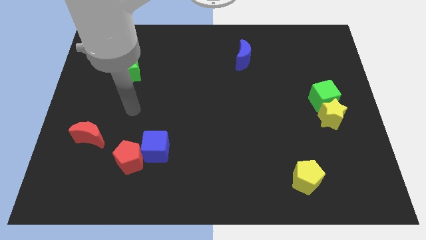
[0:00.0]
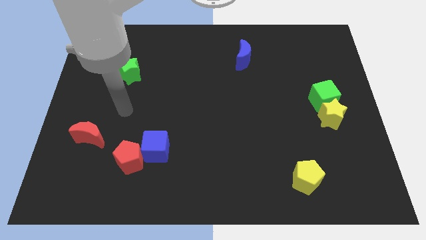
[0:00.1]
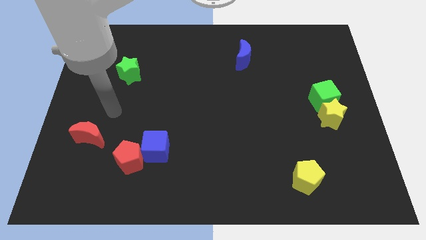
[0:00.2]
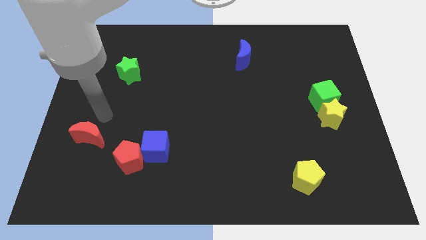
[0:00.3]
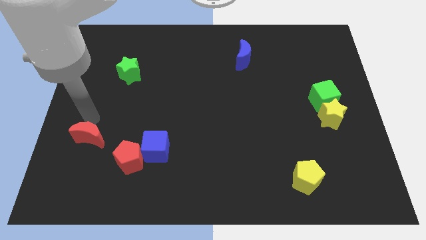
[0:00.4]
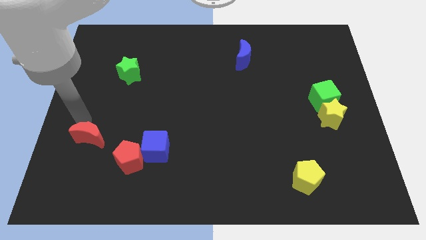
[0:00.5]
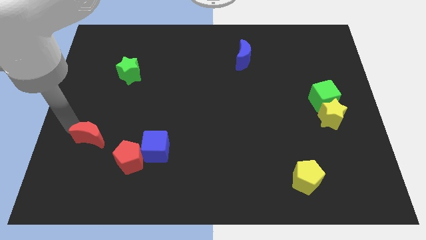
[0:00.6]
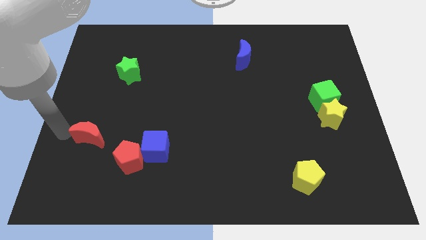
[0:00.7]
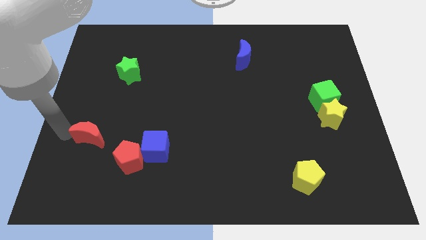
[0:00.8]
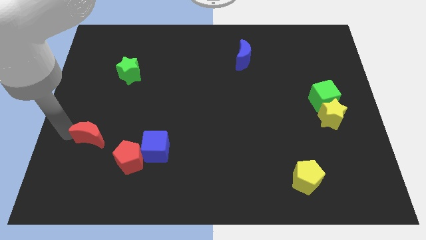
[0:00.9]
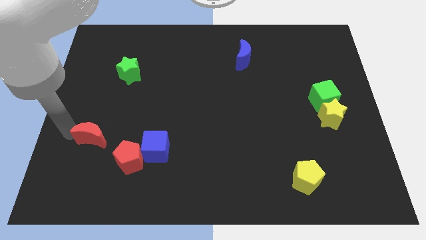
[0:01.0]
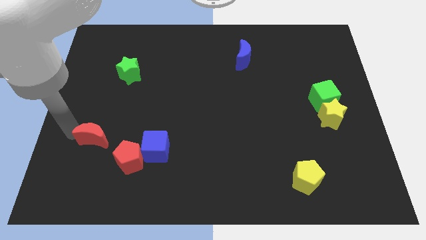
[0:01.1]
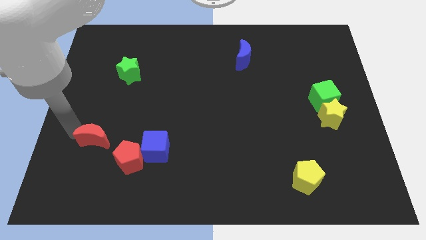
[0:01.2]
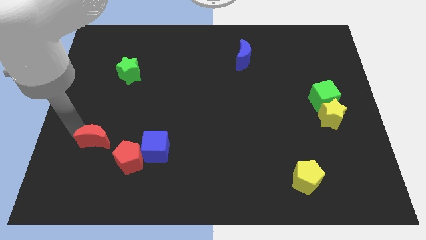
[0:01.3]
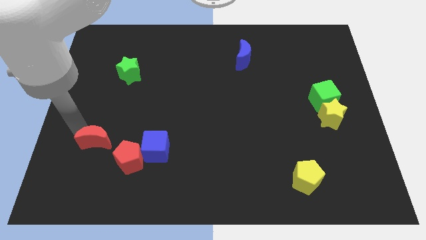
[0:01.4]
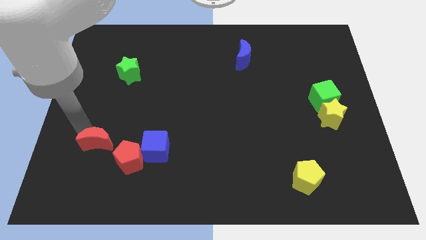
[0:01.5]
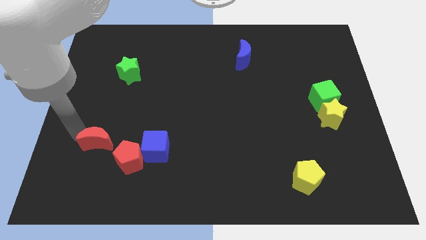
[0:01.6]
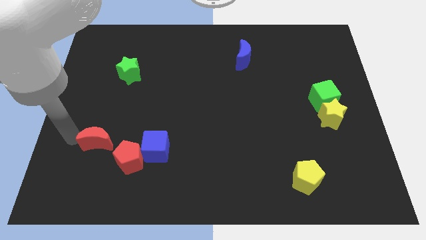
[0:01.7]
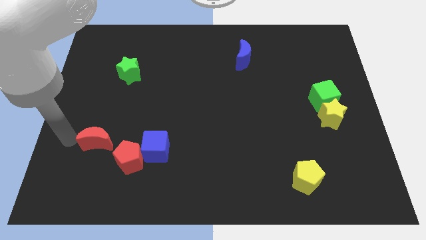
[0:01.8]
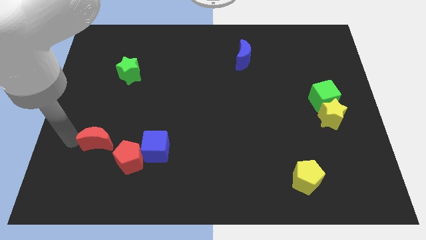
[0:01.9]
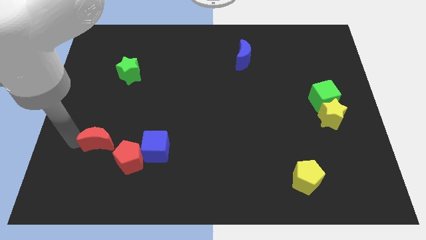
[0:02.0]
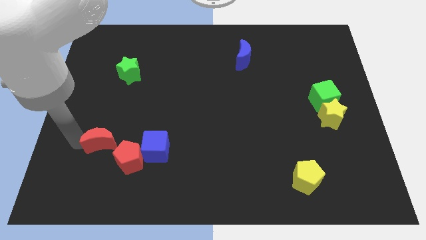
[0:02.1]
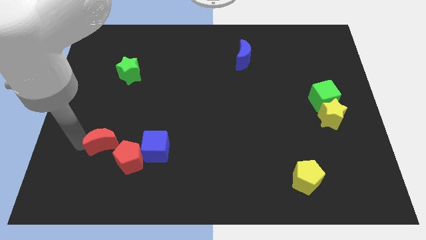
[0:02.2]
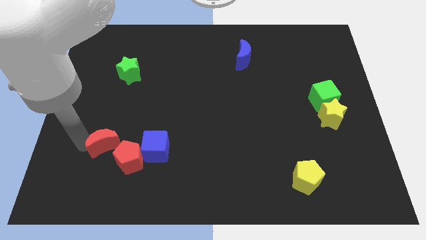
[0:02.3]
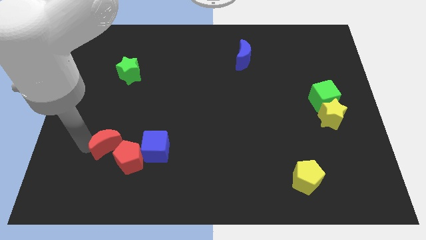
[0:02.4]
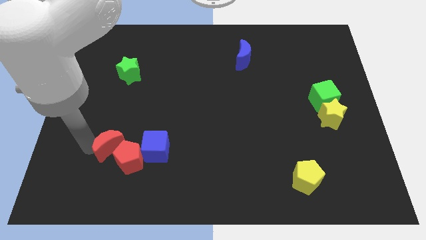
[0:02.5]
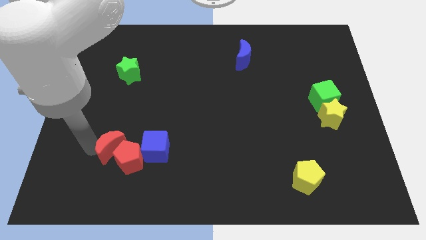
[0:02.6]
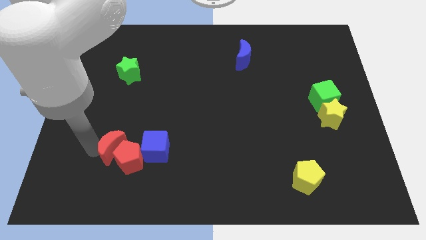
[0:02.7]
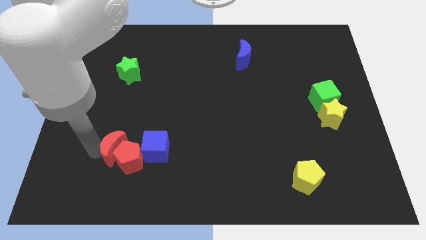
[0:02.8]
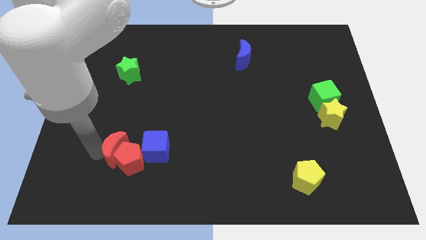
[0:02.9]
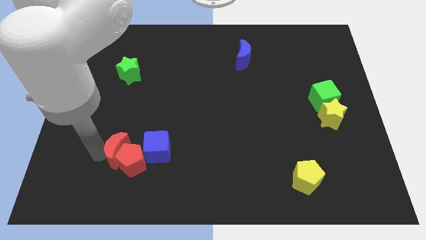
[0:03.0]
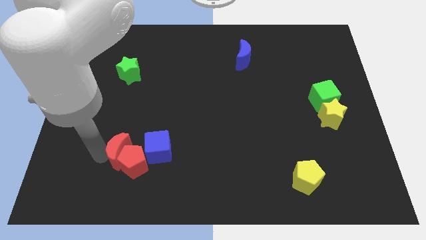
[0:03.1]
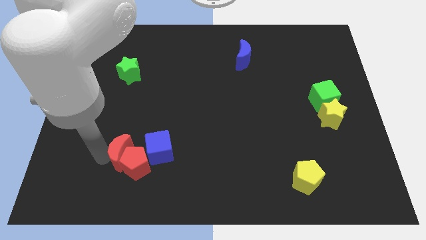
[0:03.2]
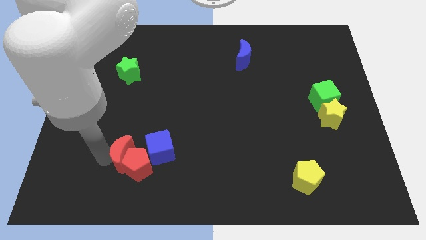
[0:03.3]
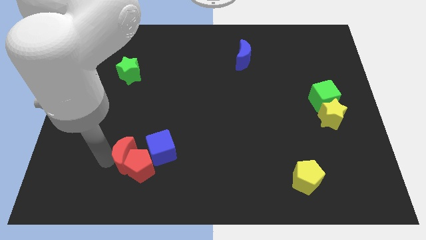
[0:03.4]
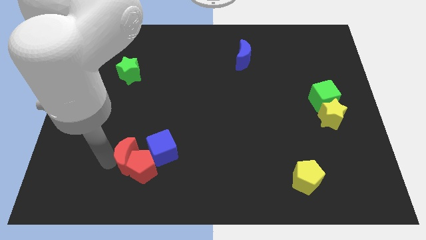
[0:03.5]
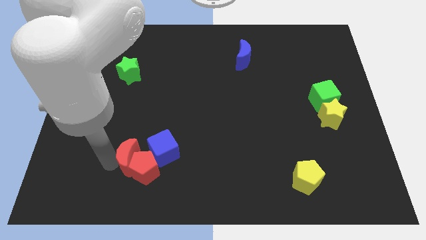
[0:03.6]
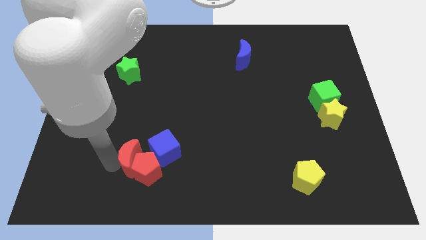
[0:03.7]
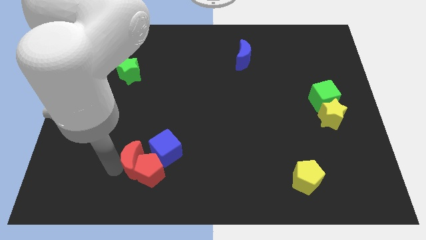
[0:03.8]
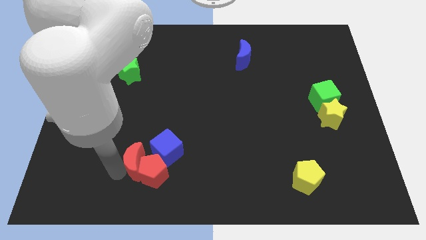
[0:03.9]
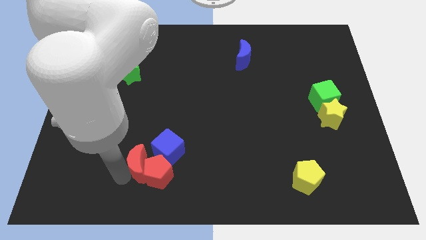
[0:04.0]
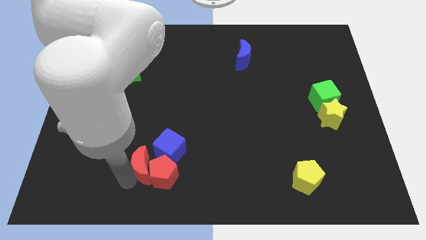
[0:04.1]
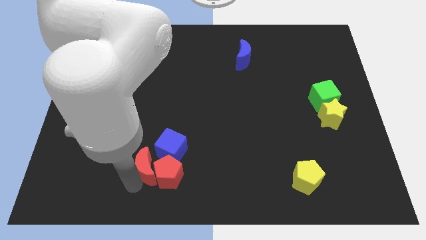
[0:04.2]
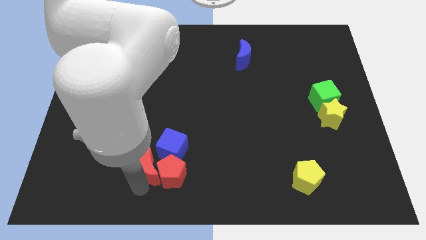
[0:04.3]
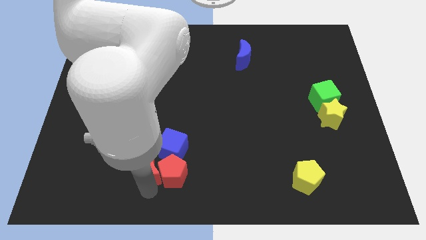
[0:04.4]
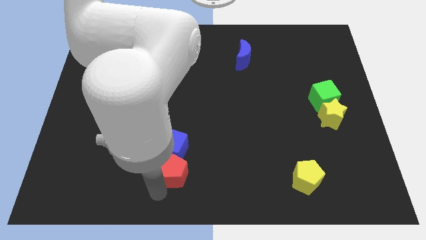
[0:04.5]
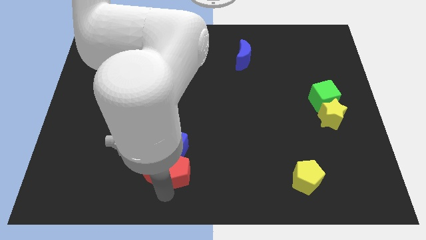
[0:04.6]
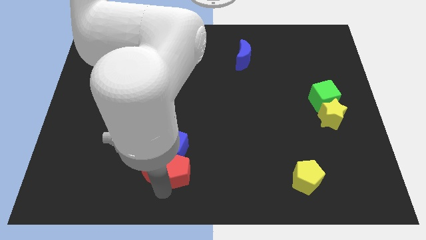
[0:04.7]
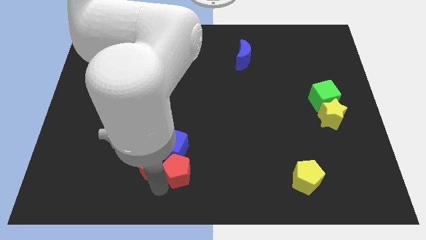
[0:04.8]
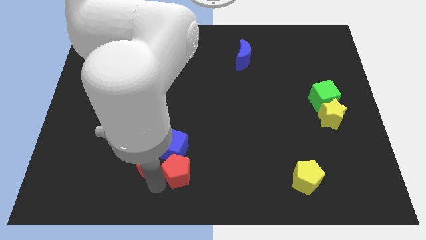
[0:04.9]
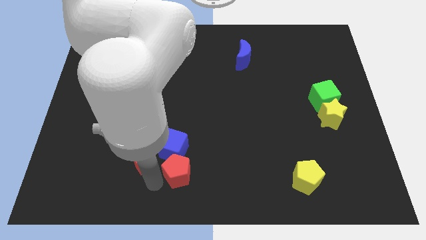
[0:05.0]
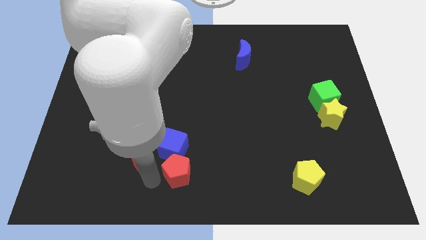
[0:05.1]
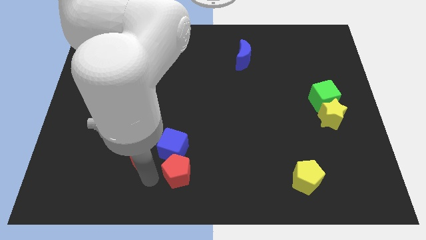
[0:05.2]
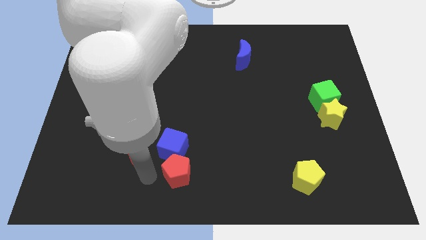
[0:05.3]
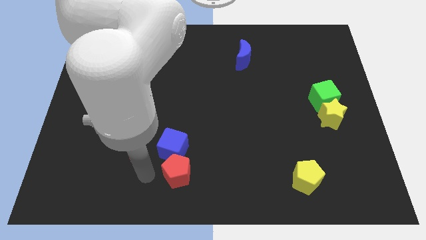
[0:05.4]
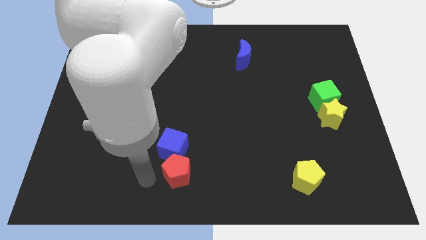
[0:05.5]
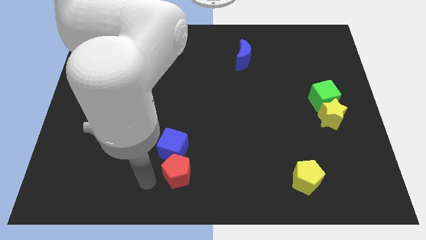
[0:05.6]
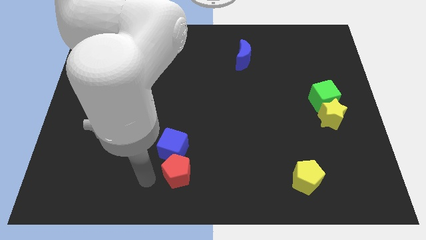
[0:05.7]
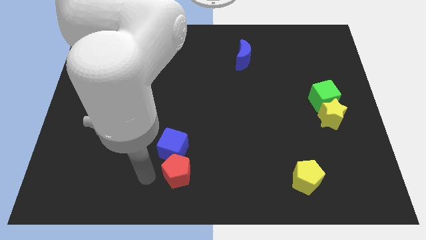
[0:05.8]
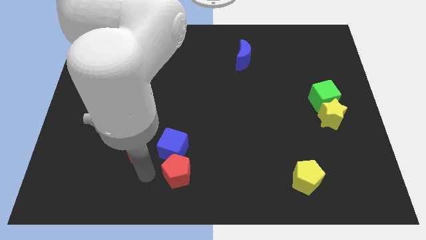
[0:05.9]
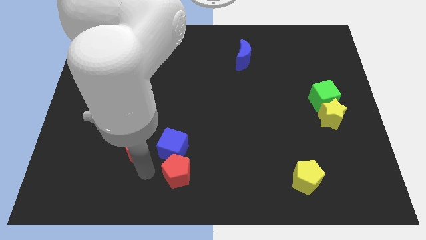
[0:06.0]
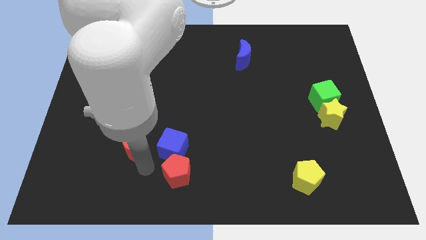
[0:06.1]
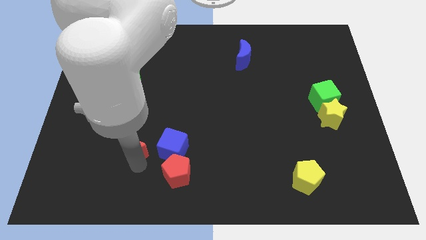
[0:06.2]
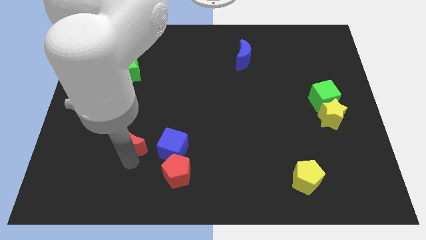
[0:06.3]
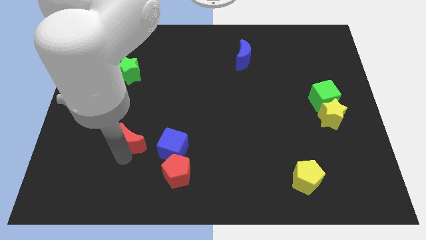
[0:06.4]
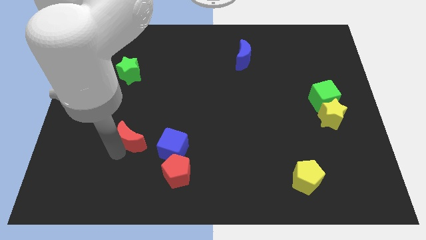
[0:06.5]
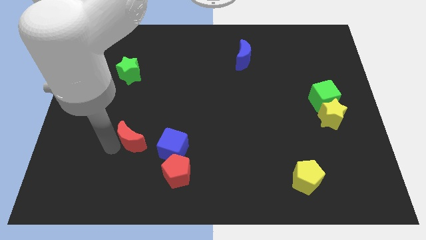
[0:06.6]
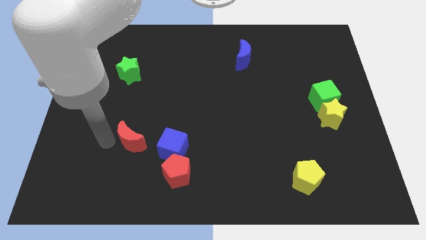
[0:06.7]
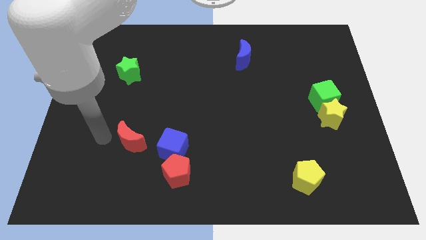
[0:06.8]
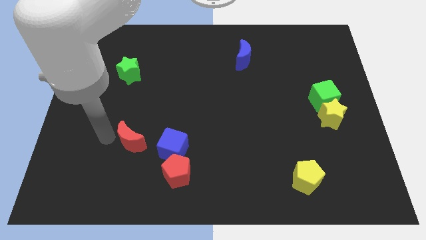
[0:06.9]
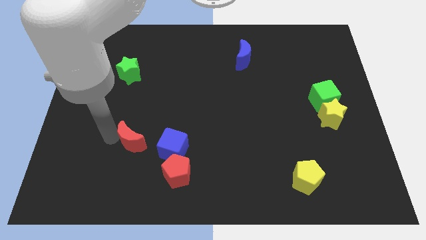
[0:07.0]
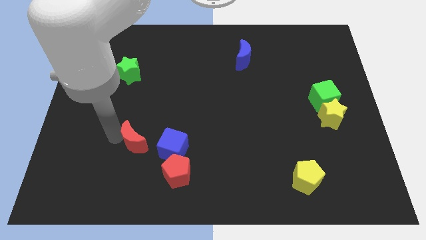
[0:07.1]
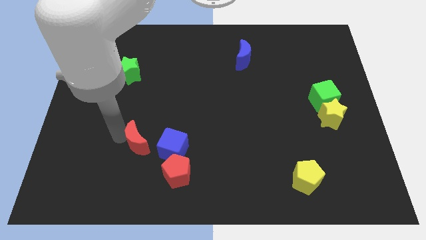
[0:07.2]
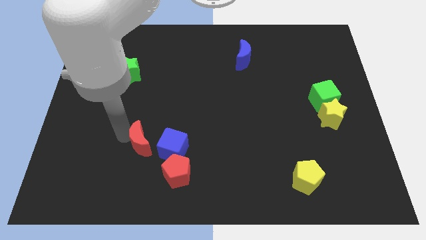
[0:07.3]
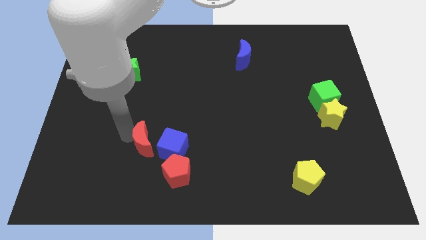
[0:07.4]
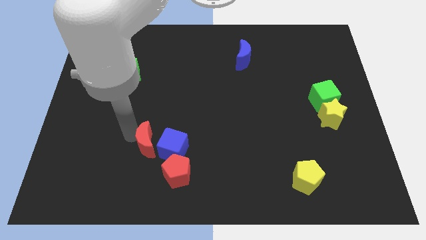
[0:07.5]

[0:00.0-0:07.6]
move the red moon next to the blue cube
